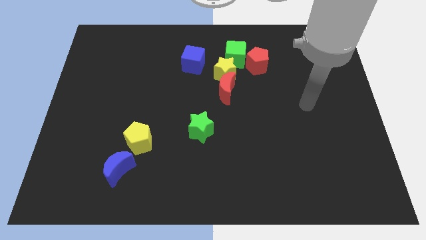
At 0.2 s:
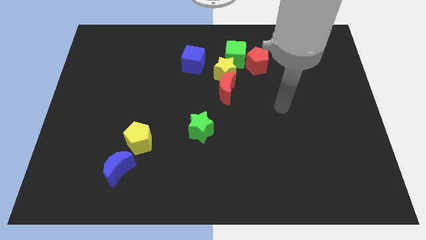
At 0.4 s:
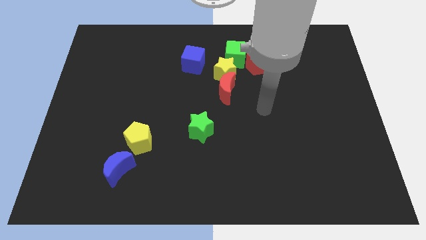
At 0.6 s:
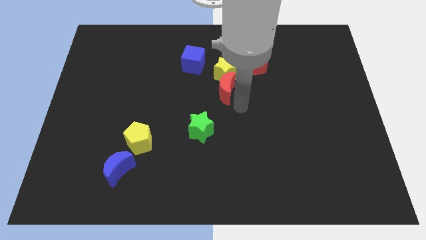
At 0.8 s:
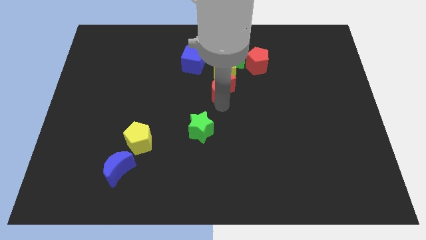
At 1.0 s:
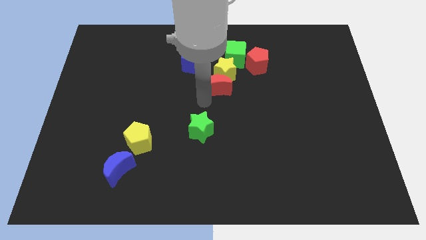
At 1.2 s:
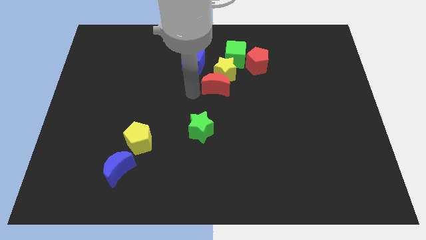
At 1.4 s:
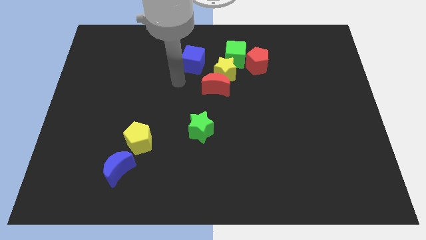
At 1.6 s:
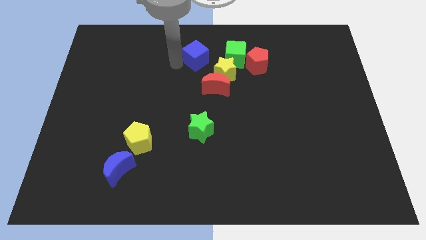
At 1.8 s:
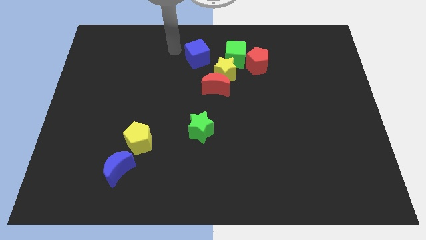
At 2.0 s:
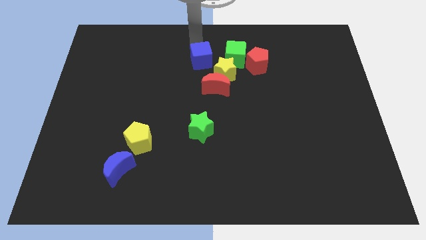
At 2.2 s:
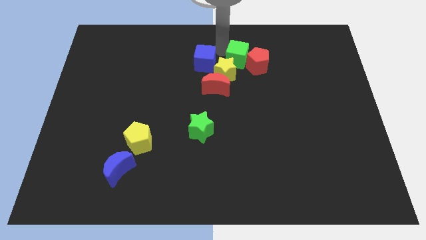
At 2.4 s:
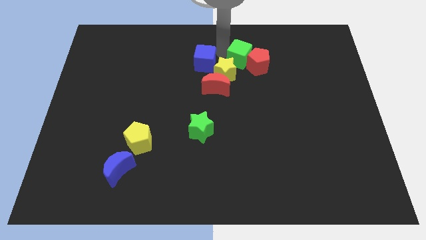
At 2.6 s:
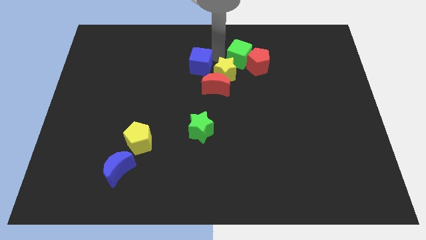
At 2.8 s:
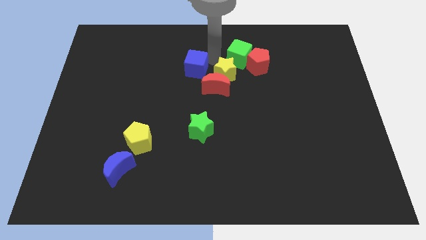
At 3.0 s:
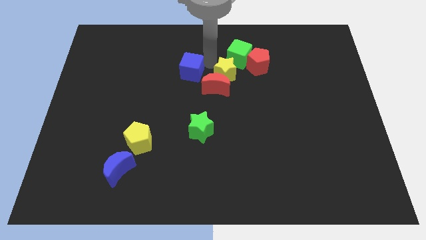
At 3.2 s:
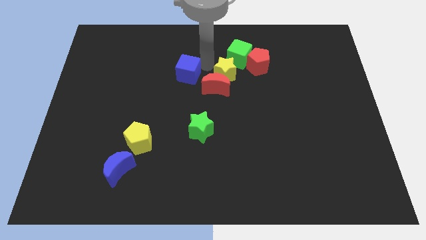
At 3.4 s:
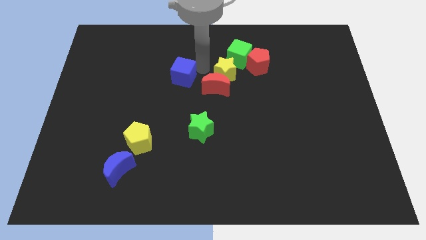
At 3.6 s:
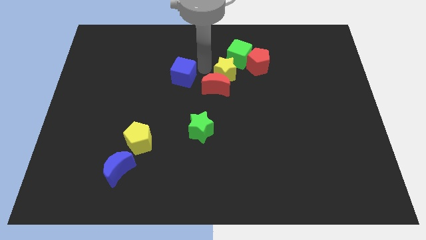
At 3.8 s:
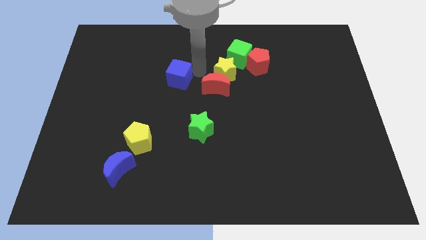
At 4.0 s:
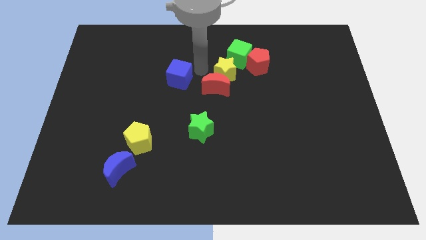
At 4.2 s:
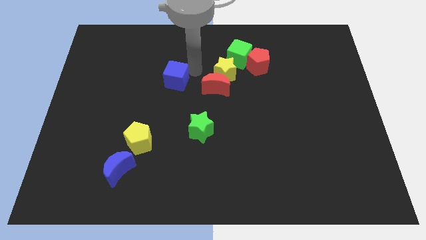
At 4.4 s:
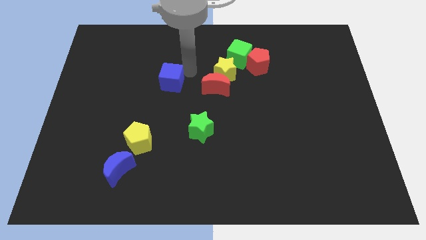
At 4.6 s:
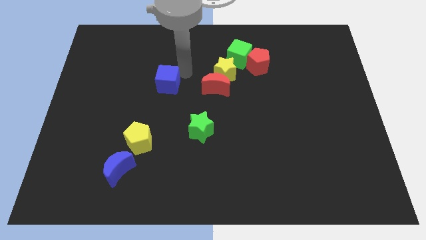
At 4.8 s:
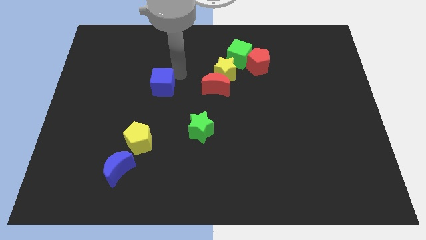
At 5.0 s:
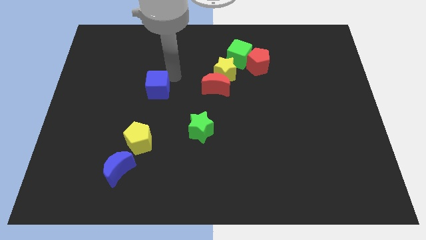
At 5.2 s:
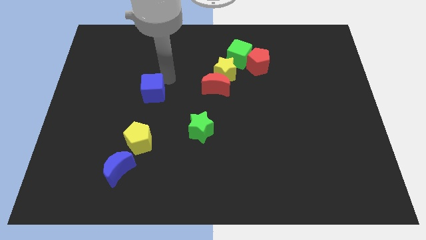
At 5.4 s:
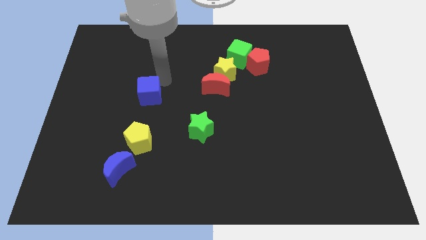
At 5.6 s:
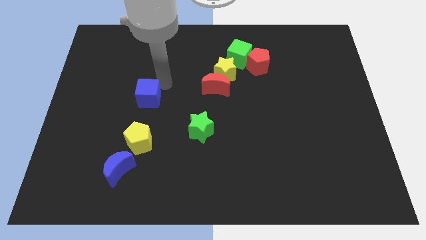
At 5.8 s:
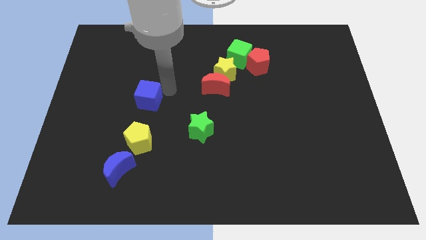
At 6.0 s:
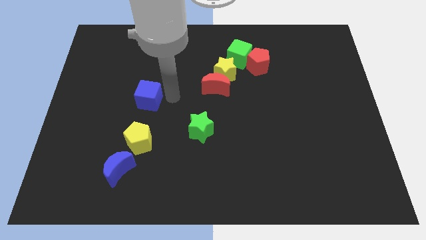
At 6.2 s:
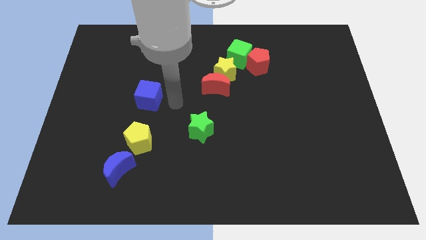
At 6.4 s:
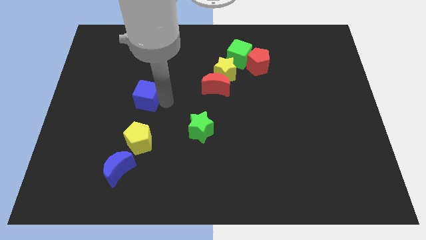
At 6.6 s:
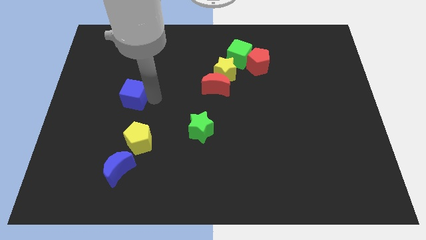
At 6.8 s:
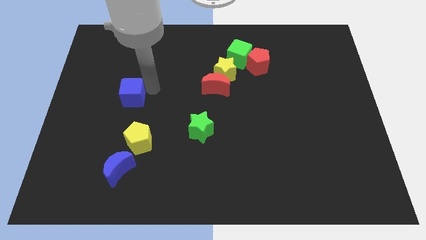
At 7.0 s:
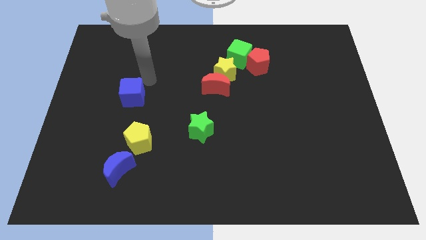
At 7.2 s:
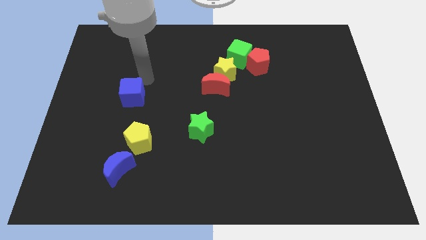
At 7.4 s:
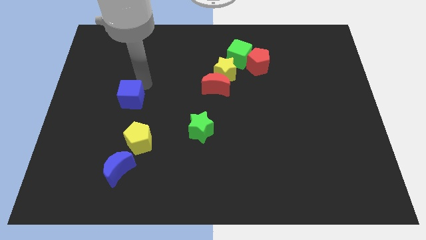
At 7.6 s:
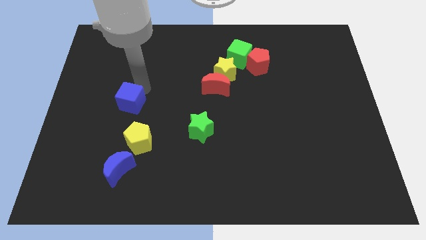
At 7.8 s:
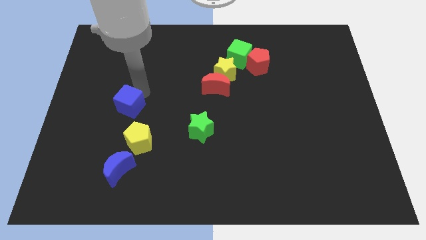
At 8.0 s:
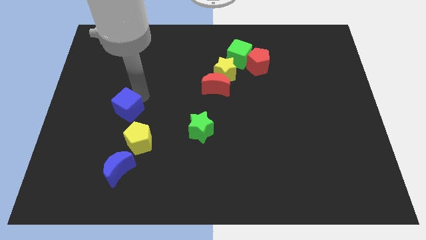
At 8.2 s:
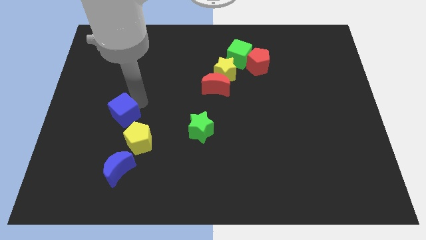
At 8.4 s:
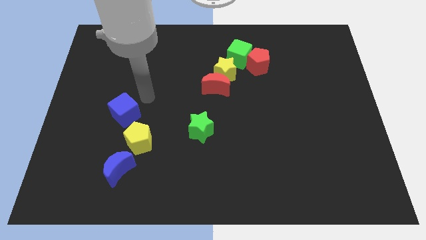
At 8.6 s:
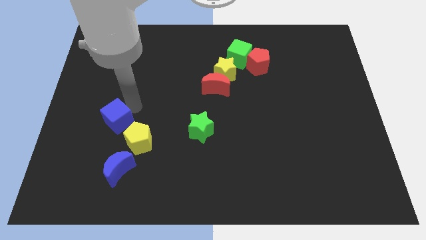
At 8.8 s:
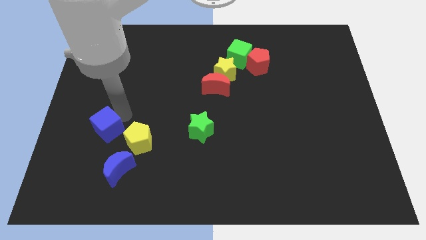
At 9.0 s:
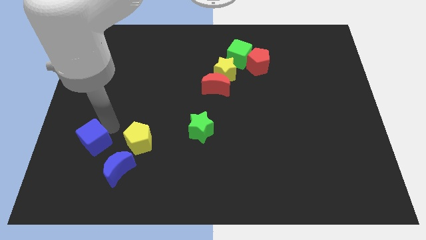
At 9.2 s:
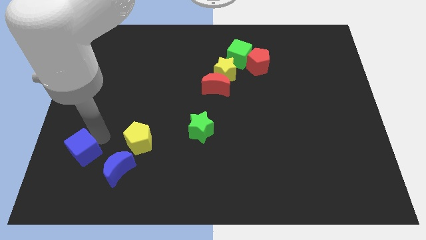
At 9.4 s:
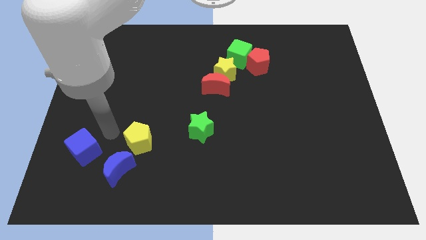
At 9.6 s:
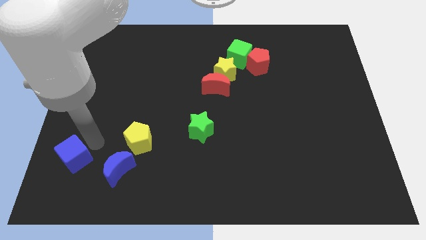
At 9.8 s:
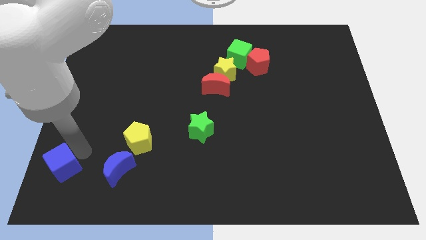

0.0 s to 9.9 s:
put the blue cube to the bottom left of the board

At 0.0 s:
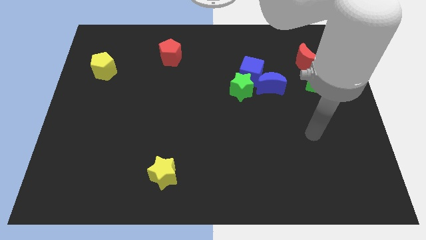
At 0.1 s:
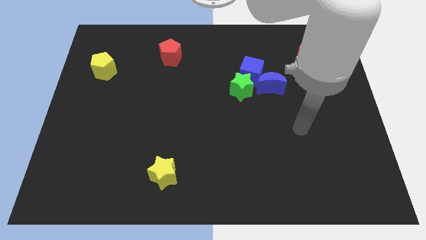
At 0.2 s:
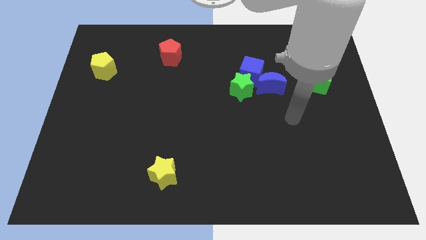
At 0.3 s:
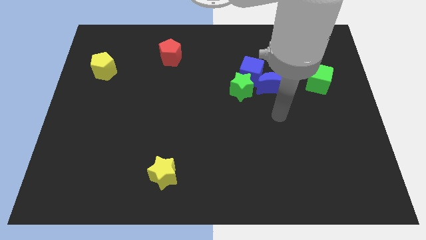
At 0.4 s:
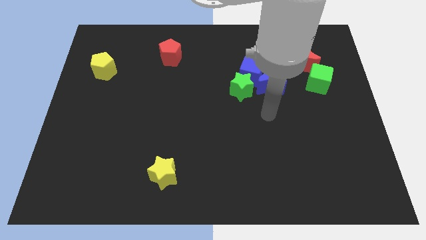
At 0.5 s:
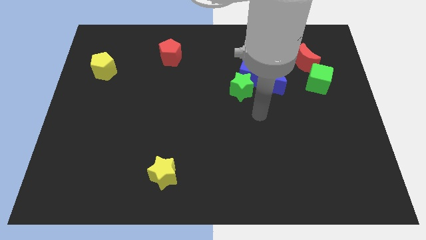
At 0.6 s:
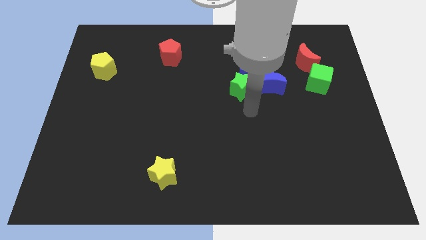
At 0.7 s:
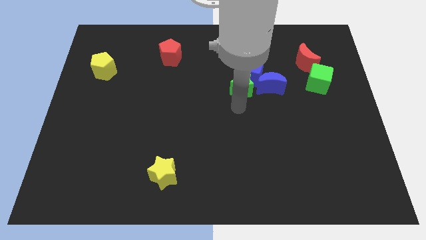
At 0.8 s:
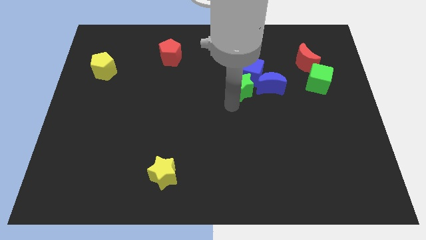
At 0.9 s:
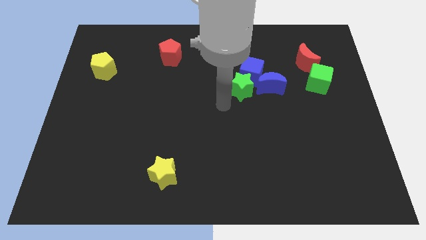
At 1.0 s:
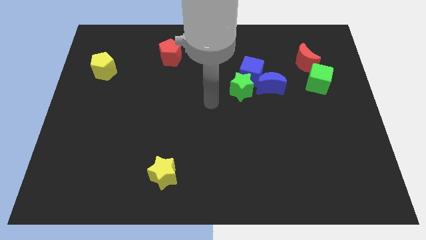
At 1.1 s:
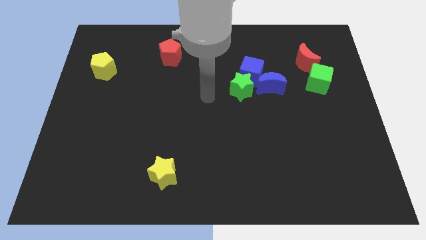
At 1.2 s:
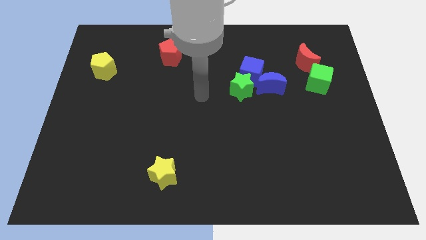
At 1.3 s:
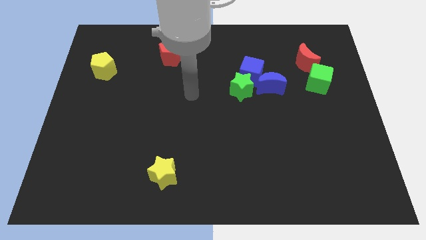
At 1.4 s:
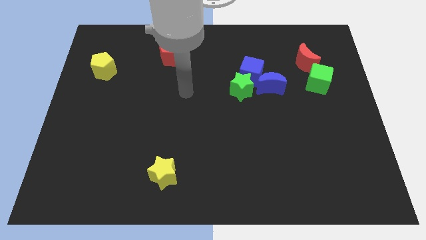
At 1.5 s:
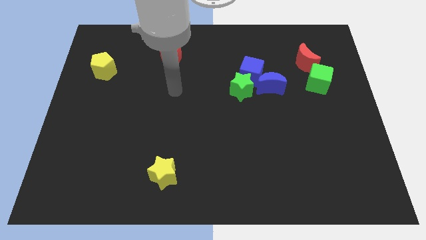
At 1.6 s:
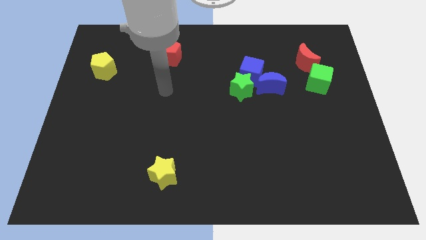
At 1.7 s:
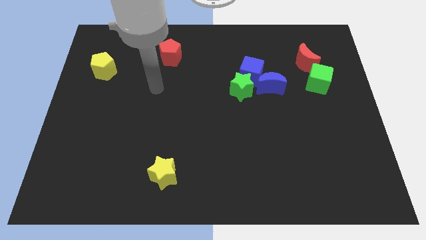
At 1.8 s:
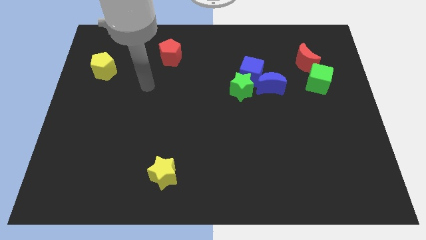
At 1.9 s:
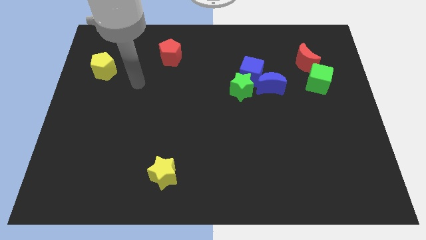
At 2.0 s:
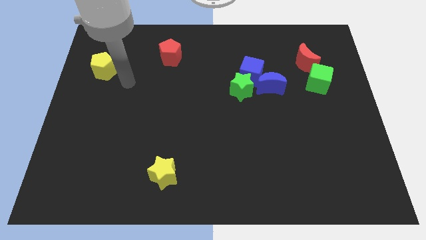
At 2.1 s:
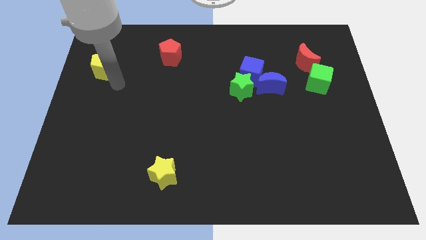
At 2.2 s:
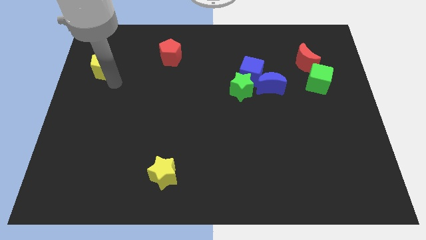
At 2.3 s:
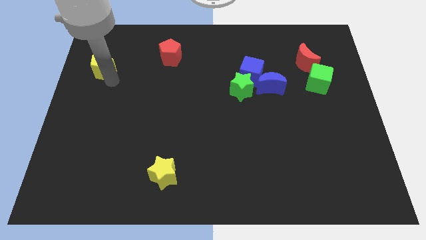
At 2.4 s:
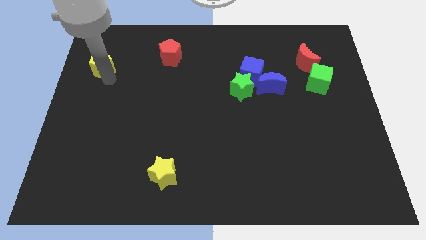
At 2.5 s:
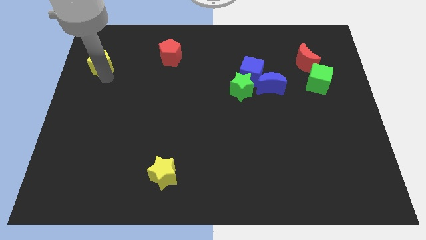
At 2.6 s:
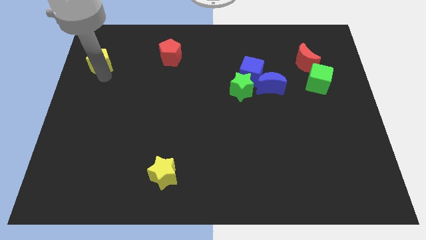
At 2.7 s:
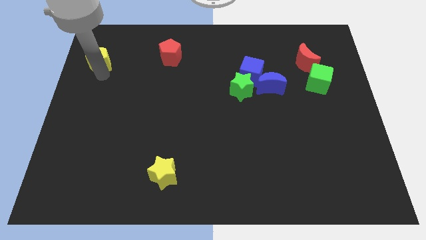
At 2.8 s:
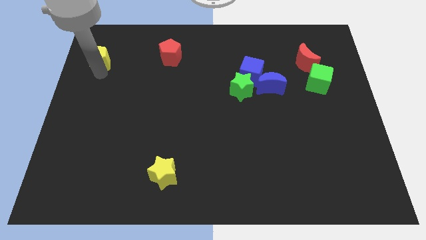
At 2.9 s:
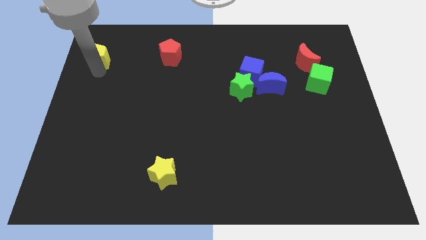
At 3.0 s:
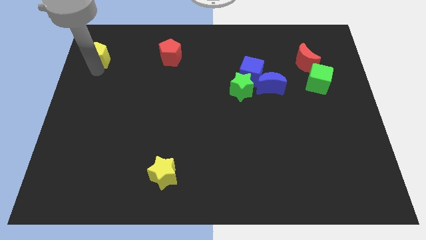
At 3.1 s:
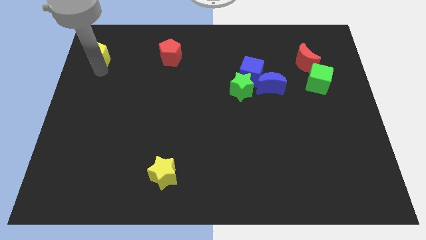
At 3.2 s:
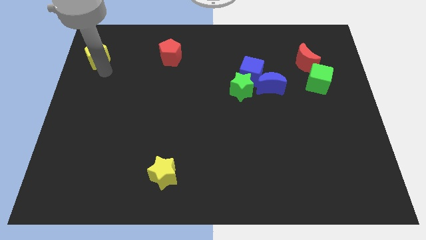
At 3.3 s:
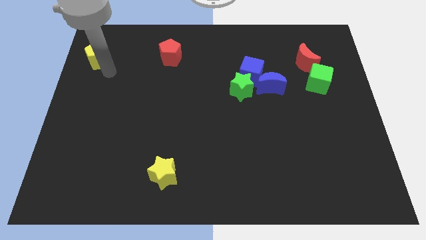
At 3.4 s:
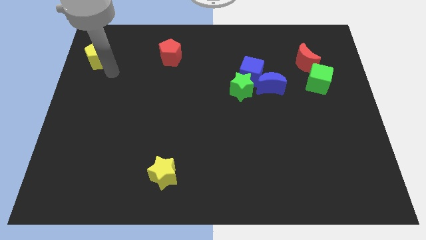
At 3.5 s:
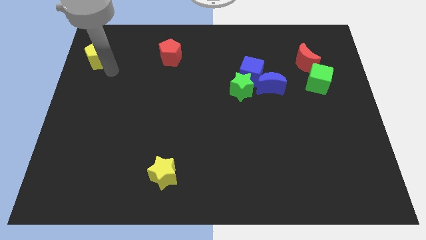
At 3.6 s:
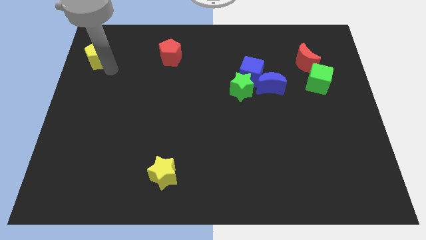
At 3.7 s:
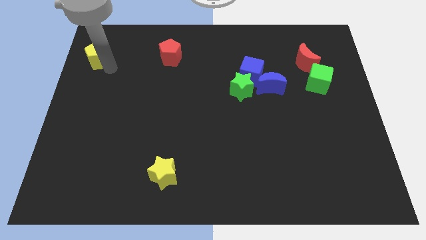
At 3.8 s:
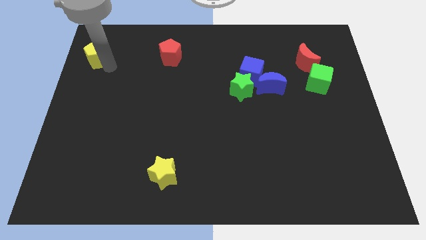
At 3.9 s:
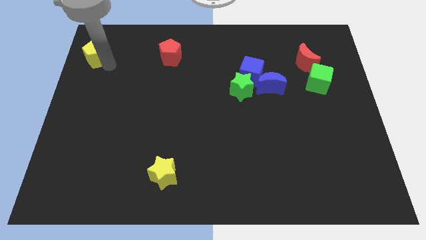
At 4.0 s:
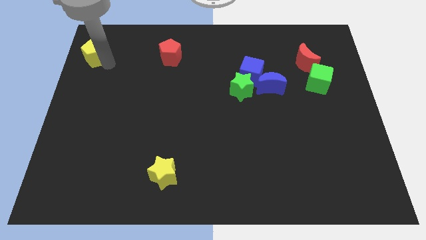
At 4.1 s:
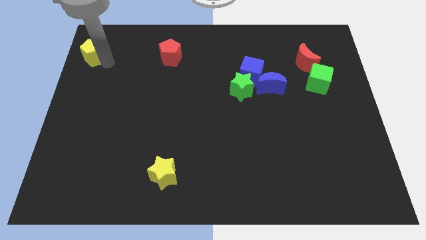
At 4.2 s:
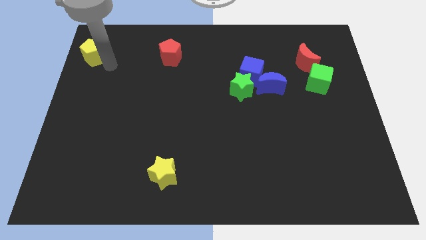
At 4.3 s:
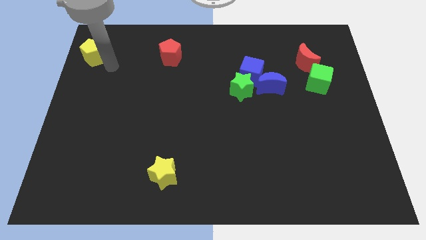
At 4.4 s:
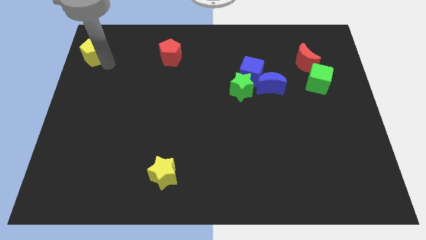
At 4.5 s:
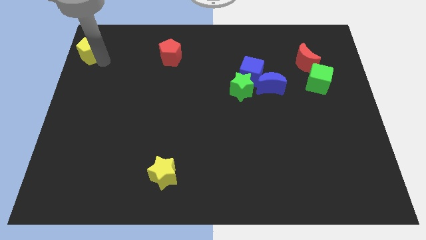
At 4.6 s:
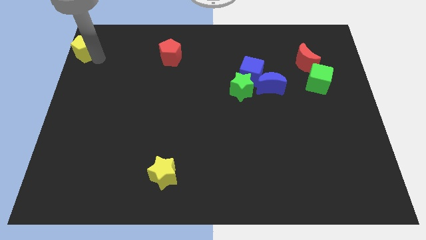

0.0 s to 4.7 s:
push the yellow pentagon to the upper left corner
